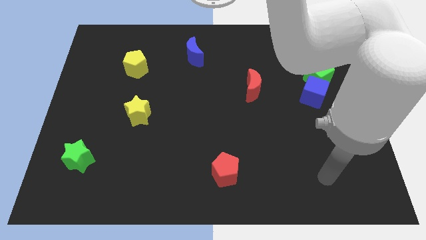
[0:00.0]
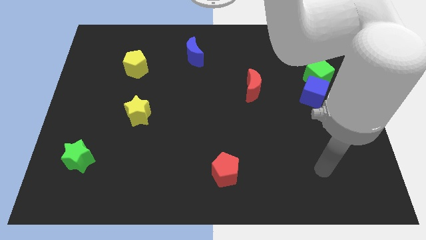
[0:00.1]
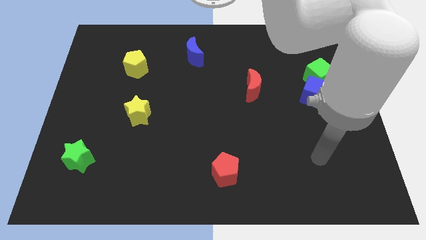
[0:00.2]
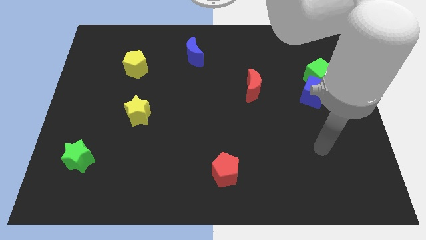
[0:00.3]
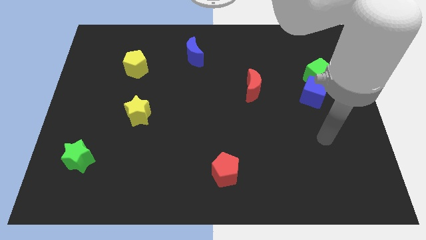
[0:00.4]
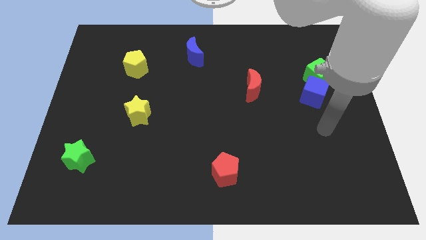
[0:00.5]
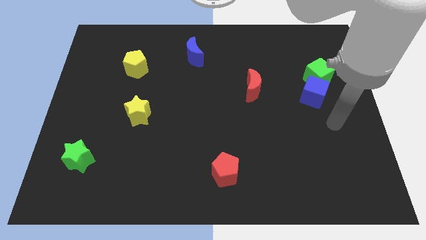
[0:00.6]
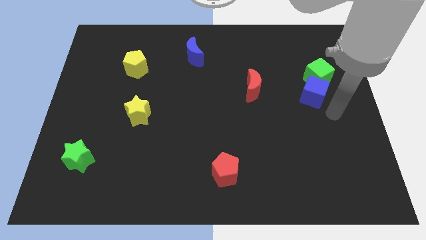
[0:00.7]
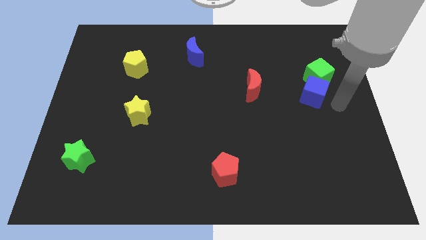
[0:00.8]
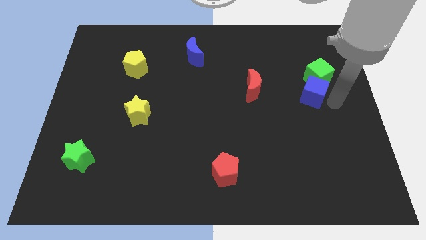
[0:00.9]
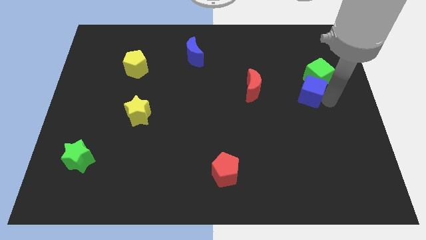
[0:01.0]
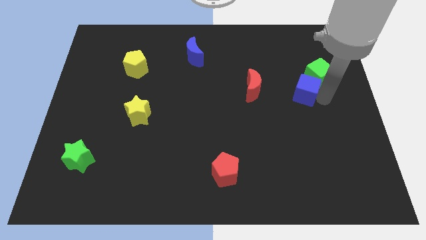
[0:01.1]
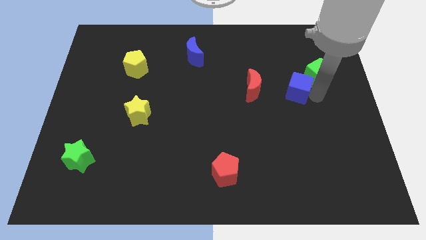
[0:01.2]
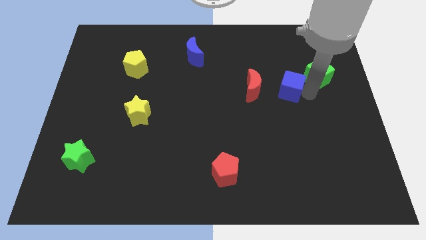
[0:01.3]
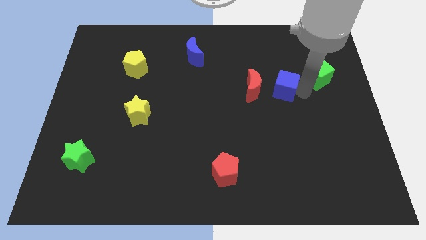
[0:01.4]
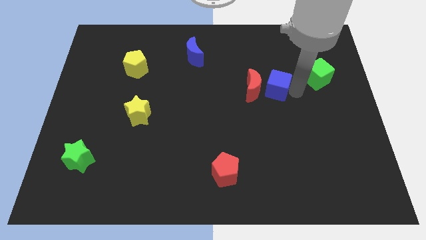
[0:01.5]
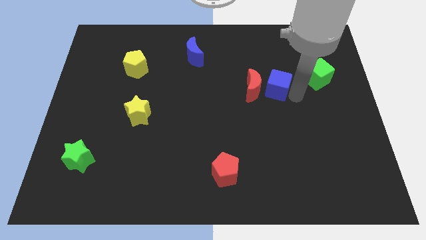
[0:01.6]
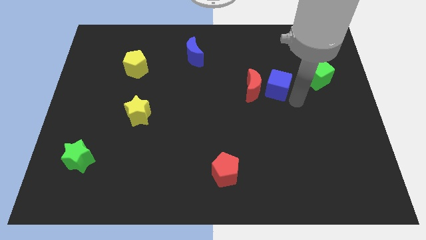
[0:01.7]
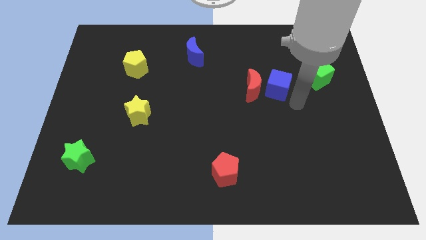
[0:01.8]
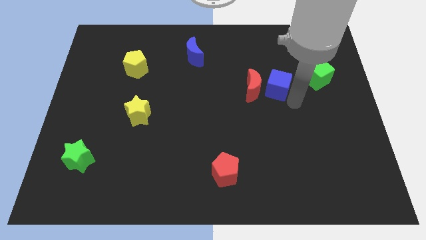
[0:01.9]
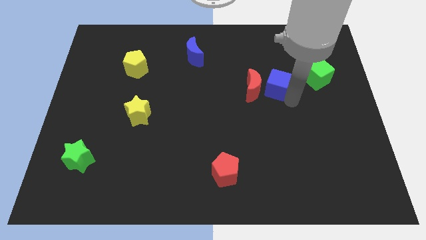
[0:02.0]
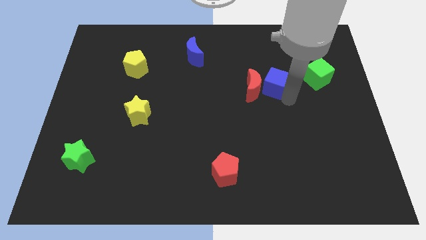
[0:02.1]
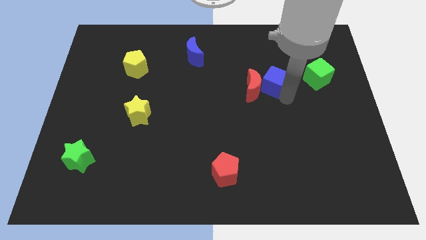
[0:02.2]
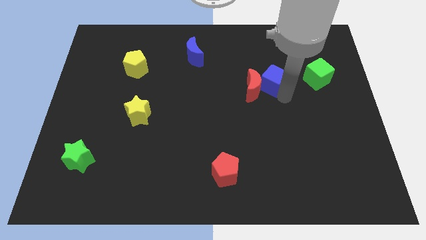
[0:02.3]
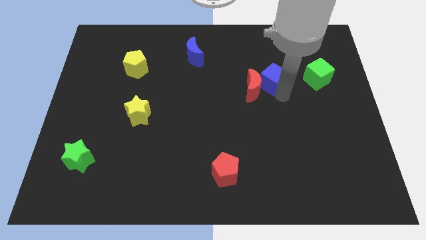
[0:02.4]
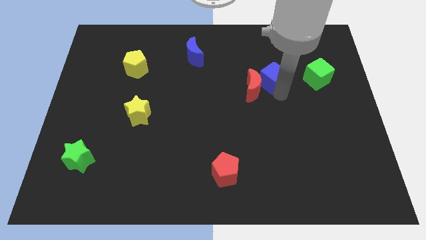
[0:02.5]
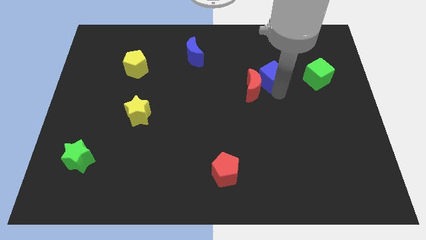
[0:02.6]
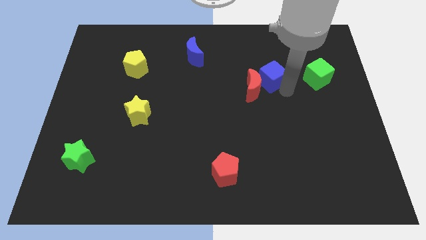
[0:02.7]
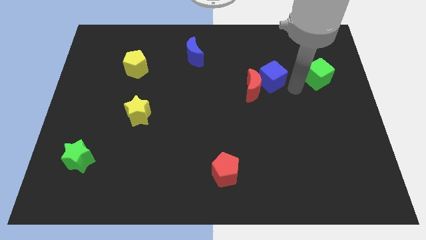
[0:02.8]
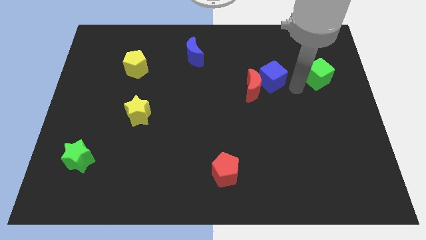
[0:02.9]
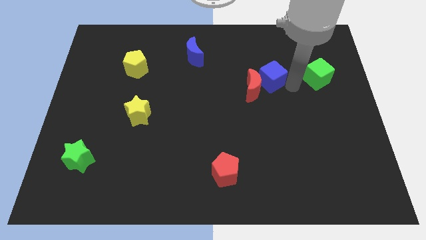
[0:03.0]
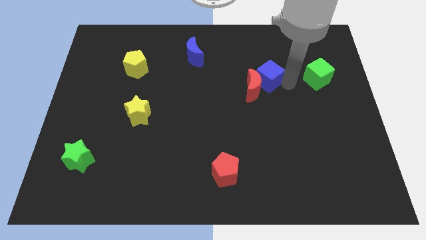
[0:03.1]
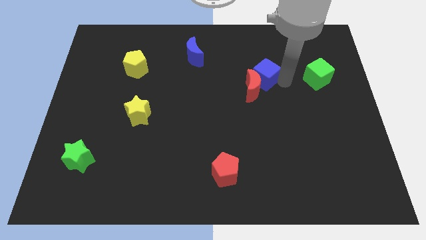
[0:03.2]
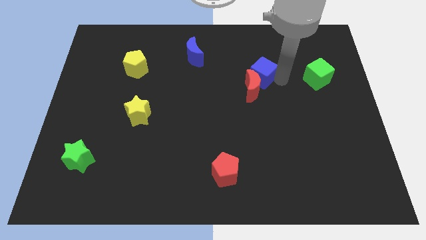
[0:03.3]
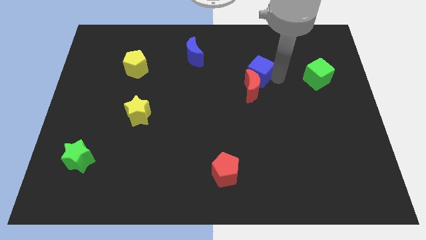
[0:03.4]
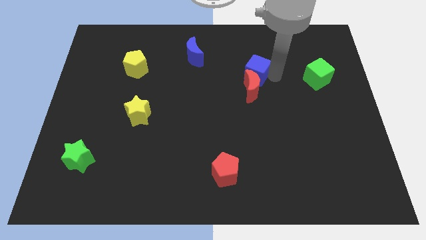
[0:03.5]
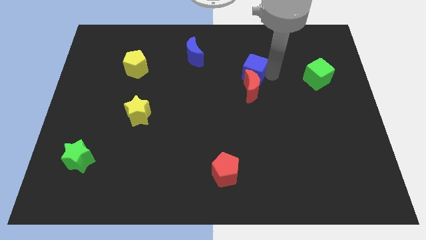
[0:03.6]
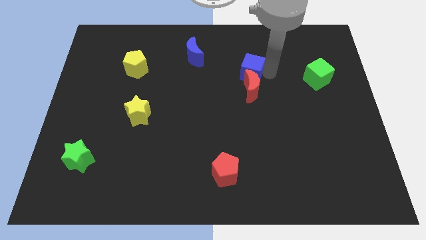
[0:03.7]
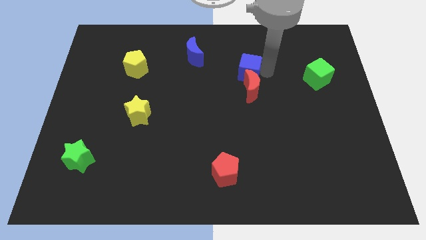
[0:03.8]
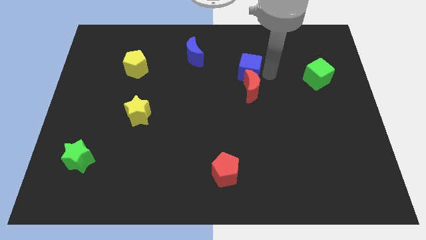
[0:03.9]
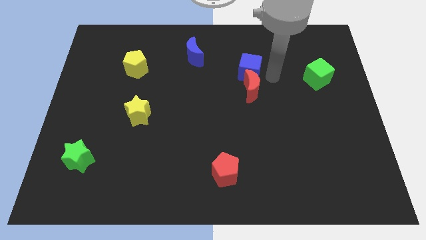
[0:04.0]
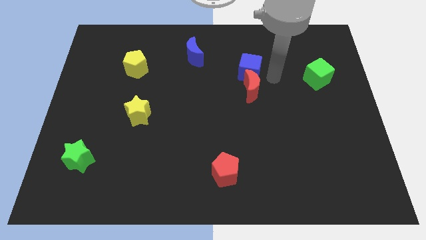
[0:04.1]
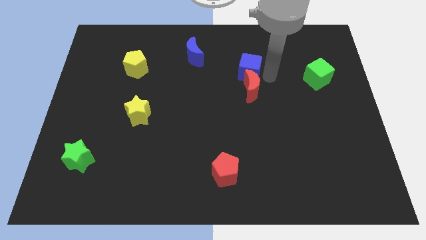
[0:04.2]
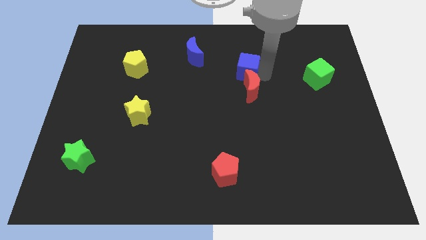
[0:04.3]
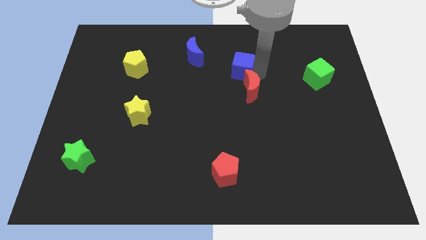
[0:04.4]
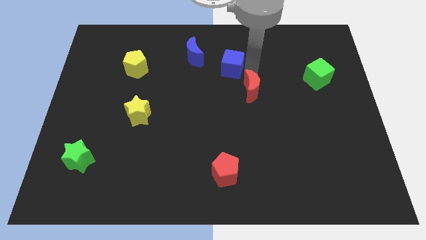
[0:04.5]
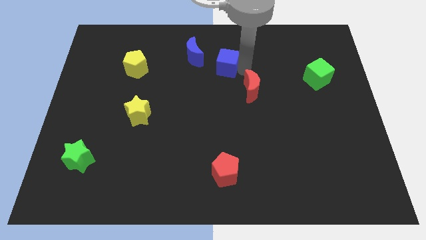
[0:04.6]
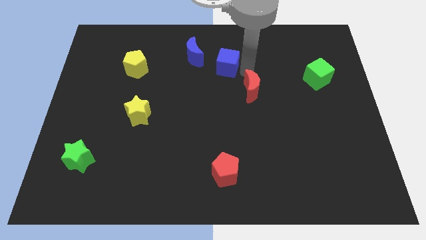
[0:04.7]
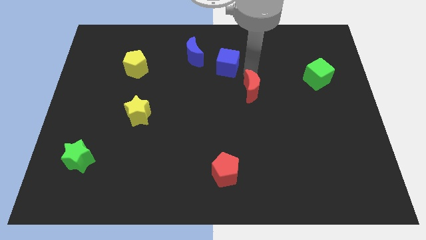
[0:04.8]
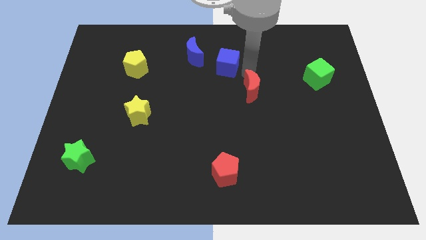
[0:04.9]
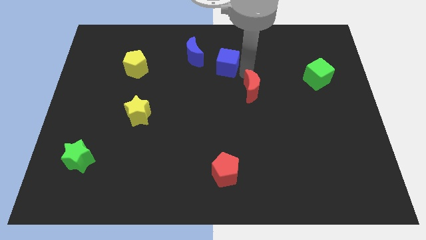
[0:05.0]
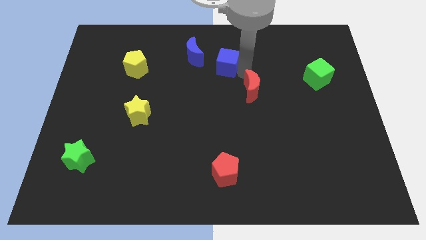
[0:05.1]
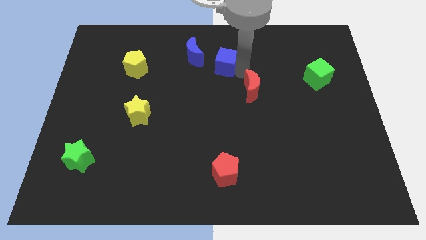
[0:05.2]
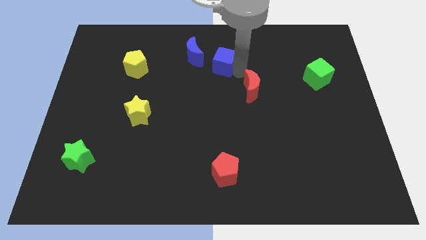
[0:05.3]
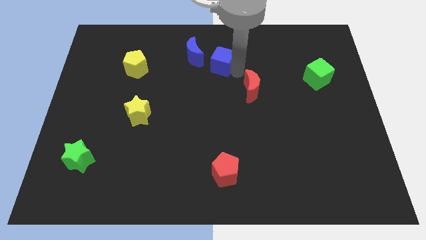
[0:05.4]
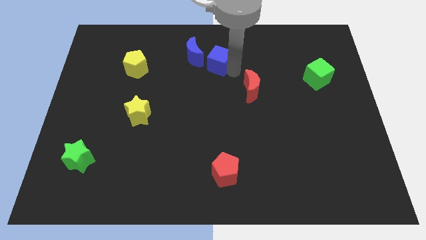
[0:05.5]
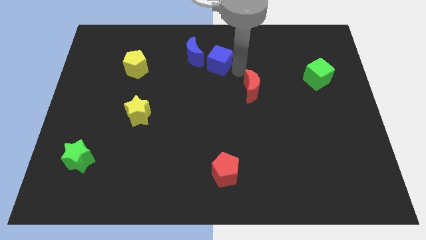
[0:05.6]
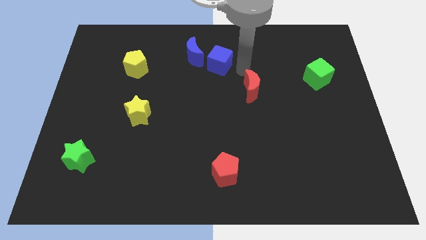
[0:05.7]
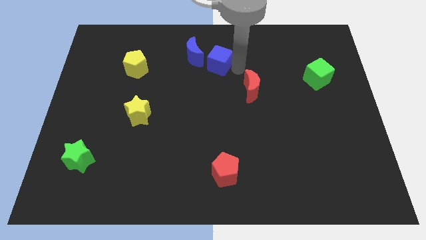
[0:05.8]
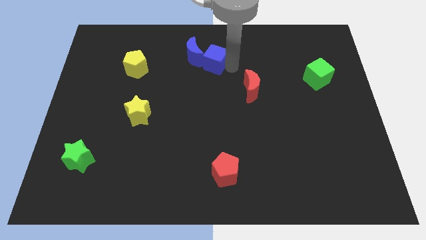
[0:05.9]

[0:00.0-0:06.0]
move the blue cube next to the blue moon

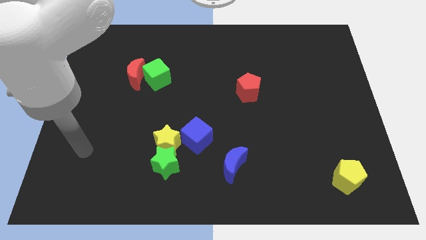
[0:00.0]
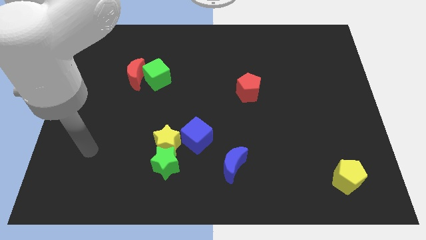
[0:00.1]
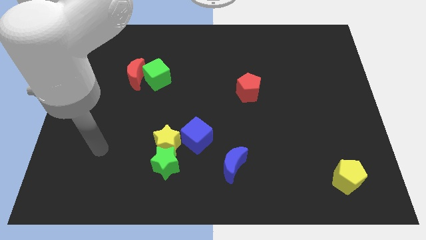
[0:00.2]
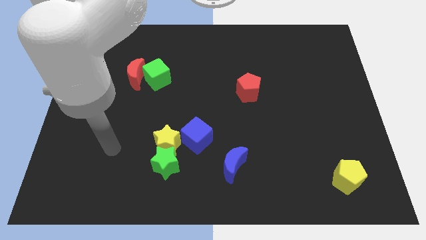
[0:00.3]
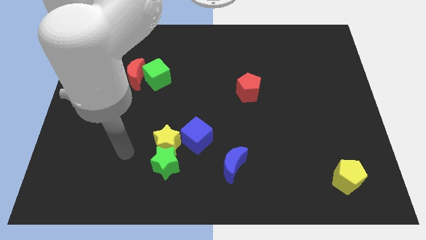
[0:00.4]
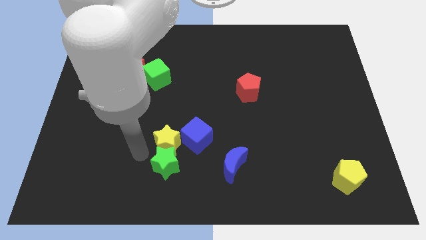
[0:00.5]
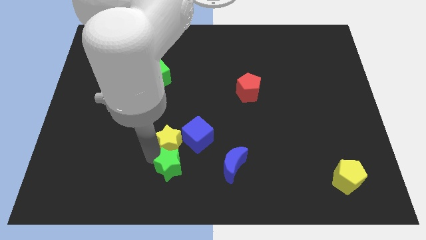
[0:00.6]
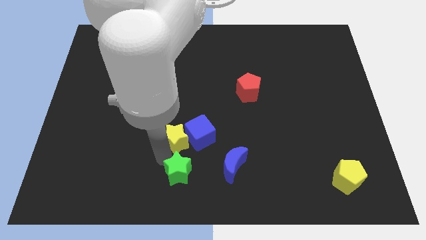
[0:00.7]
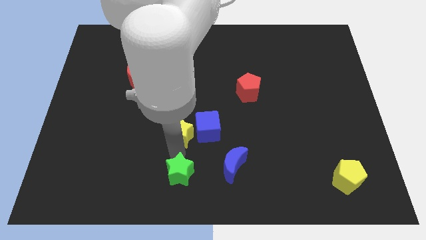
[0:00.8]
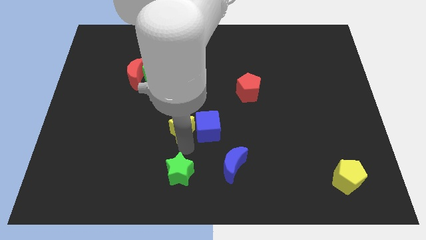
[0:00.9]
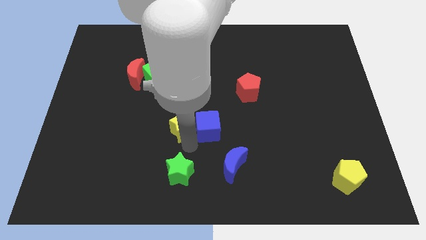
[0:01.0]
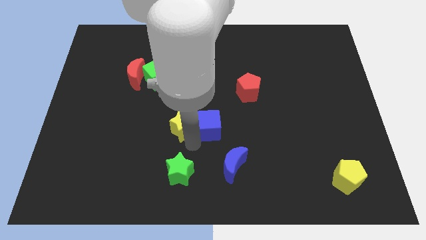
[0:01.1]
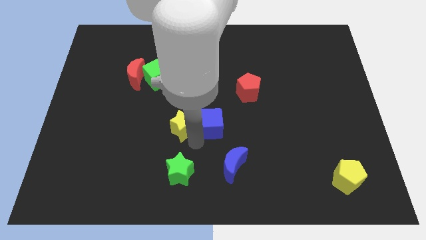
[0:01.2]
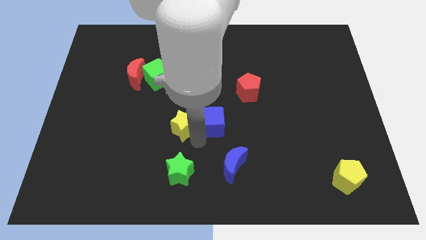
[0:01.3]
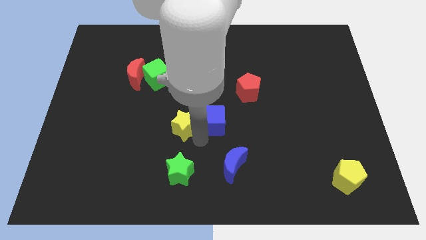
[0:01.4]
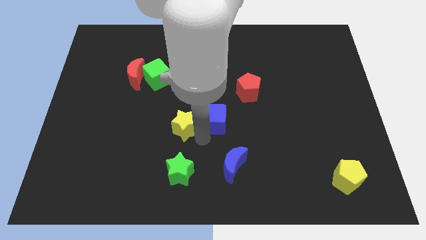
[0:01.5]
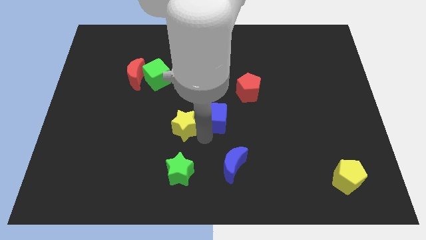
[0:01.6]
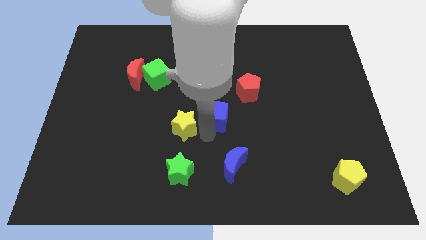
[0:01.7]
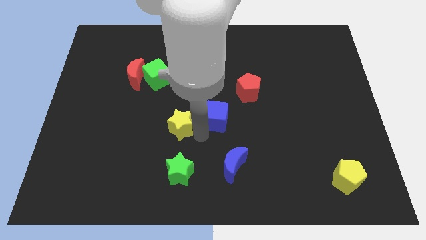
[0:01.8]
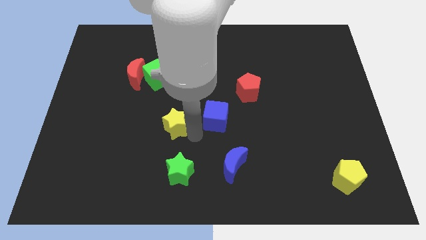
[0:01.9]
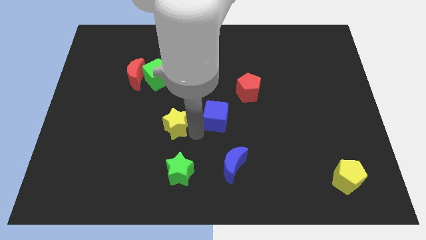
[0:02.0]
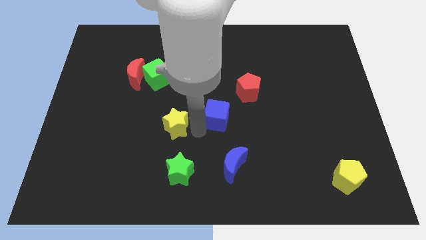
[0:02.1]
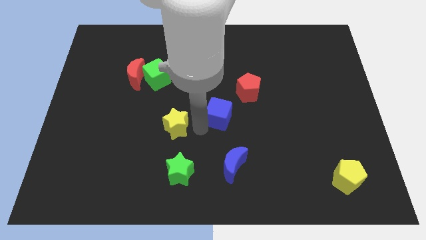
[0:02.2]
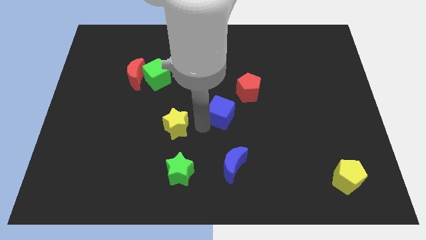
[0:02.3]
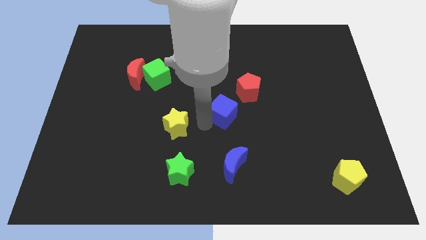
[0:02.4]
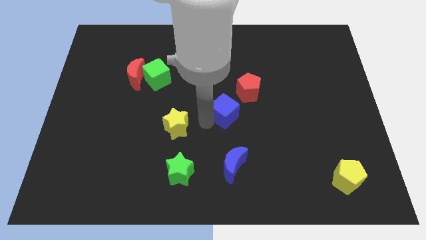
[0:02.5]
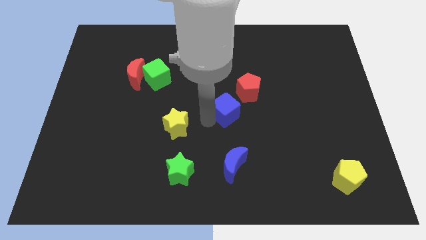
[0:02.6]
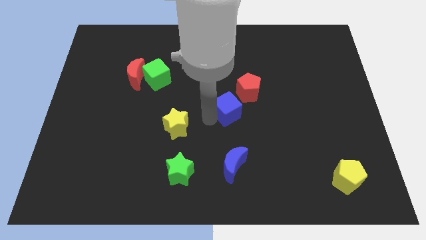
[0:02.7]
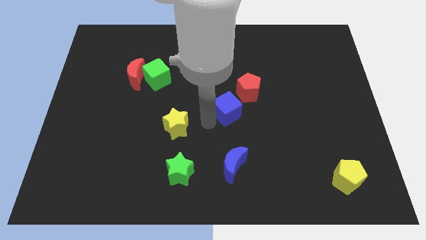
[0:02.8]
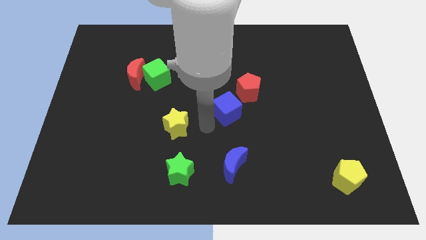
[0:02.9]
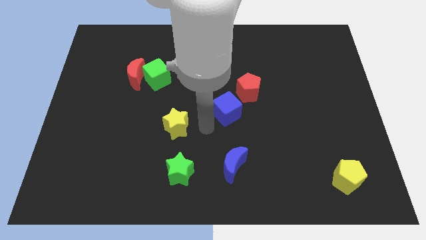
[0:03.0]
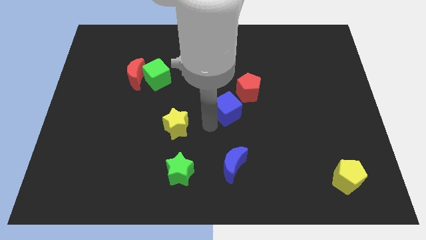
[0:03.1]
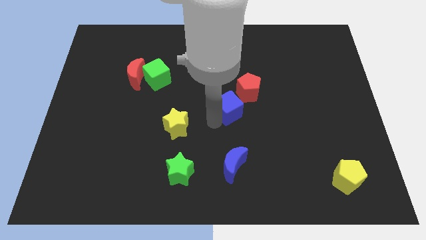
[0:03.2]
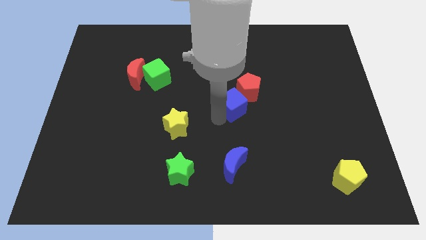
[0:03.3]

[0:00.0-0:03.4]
put the blue cube to the red pentagon
